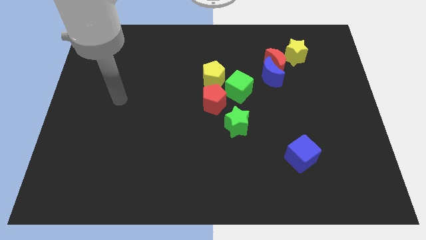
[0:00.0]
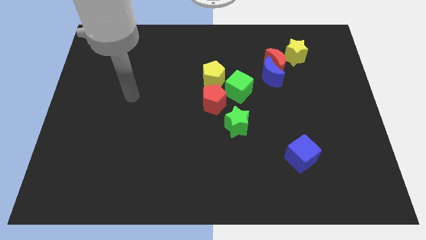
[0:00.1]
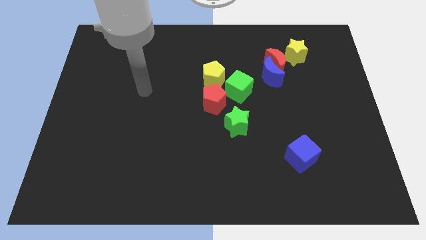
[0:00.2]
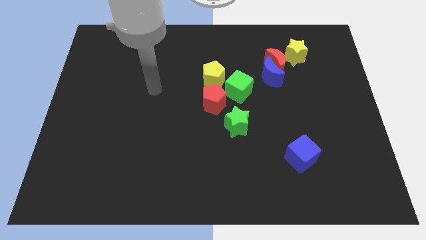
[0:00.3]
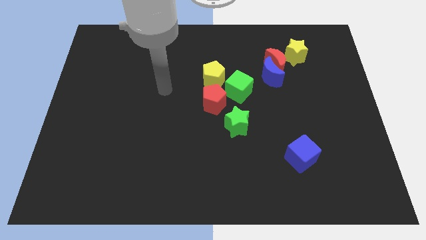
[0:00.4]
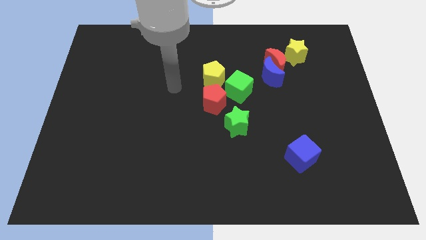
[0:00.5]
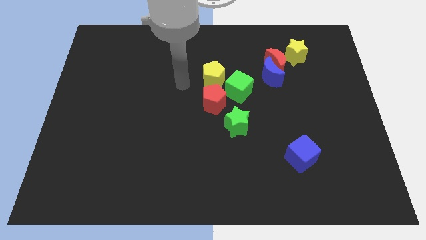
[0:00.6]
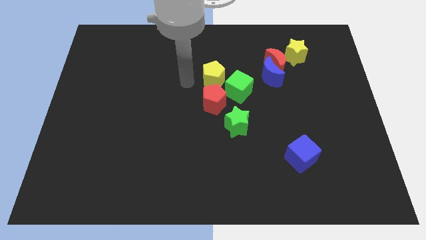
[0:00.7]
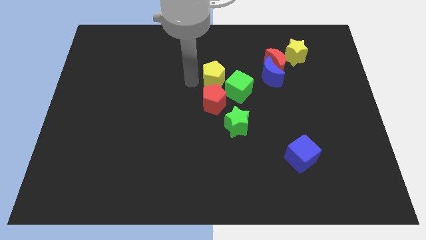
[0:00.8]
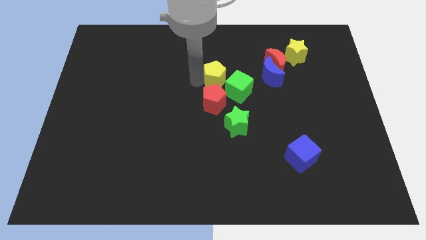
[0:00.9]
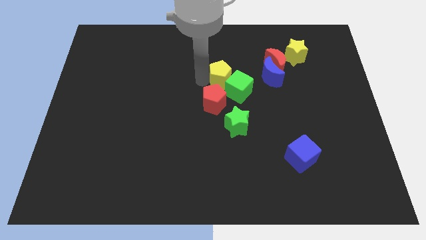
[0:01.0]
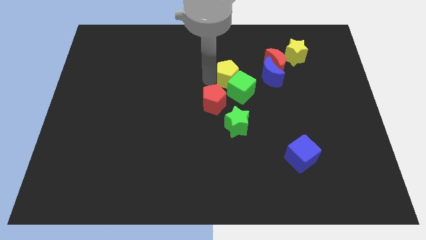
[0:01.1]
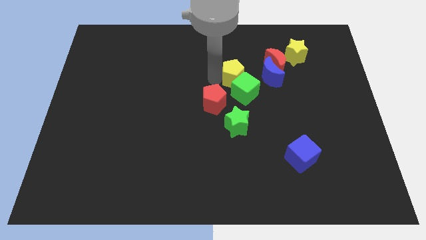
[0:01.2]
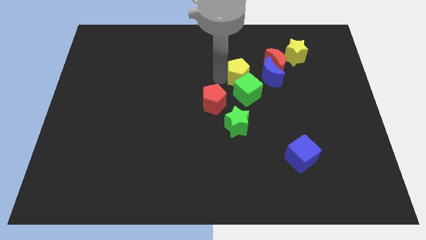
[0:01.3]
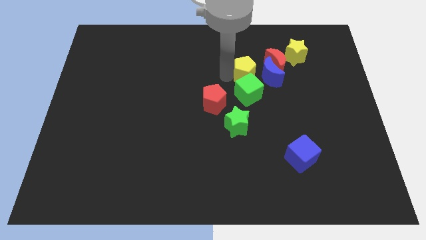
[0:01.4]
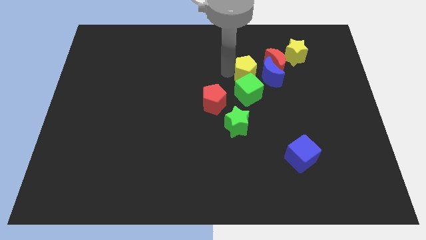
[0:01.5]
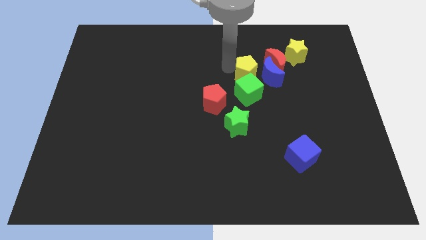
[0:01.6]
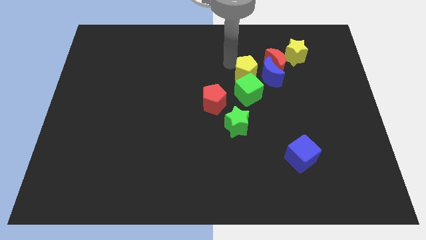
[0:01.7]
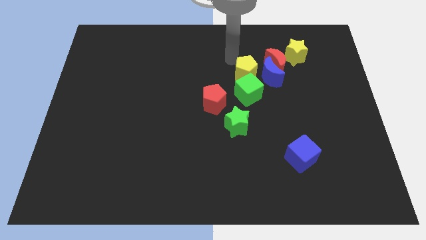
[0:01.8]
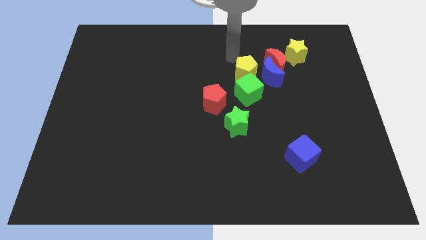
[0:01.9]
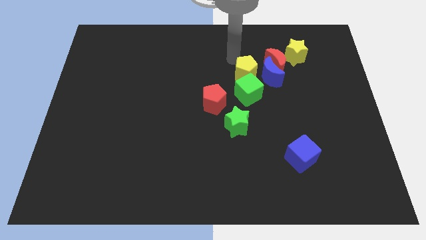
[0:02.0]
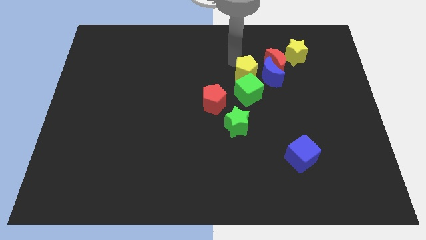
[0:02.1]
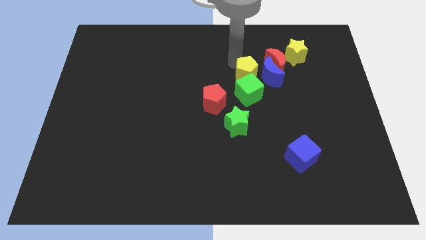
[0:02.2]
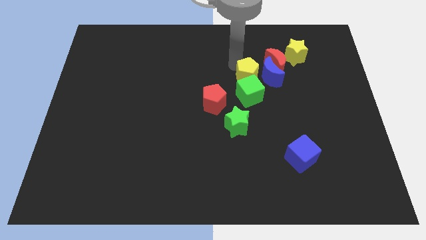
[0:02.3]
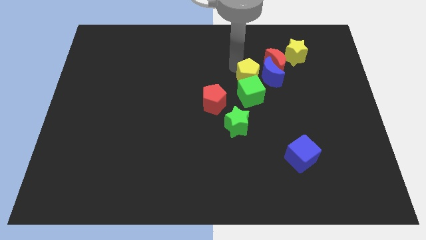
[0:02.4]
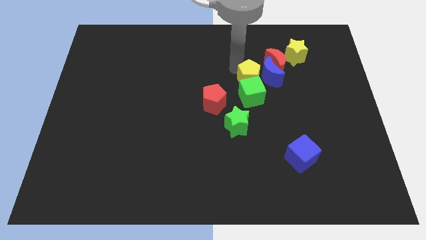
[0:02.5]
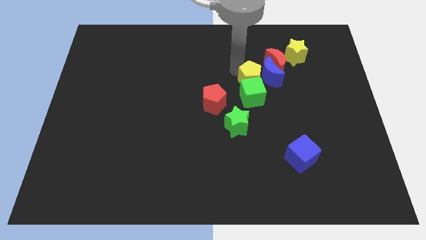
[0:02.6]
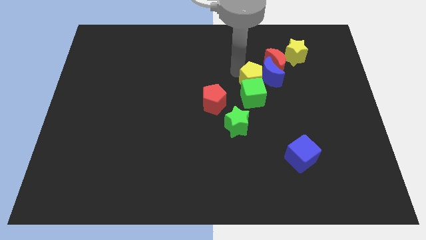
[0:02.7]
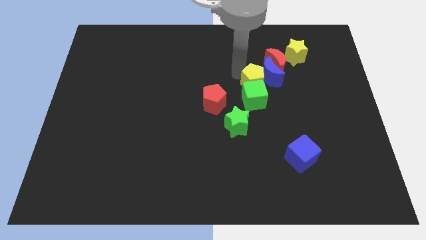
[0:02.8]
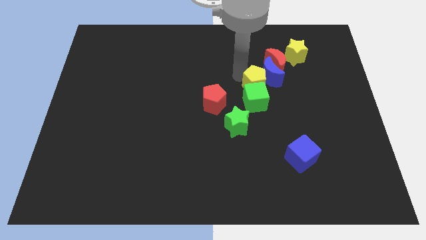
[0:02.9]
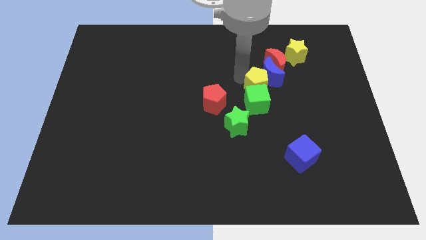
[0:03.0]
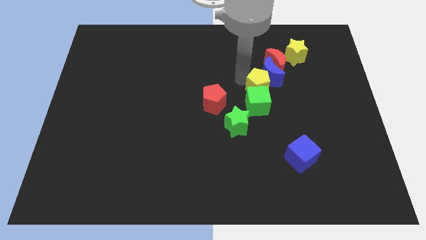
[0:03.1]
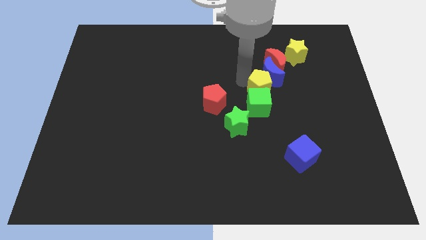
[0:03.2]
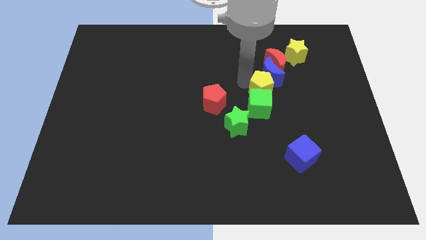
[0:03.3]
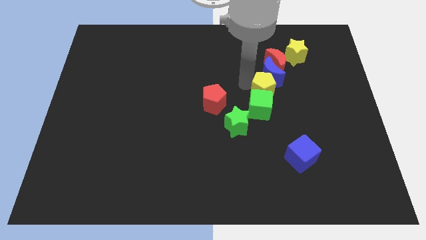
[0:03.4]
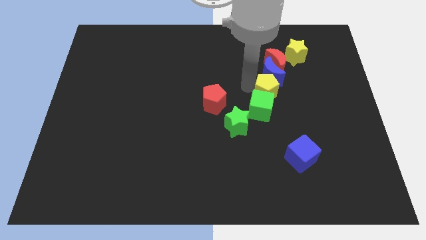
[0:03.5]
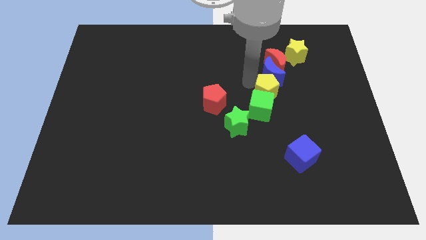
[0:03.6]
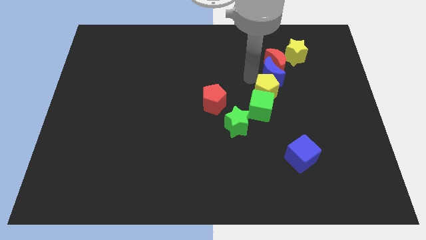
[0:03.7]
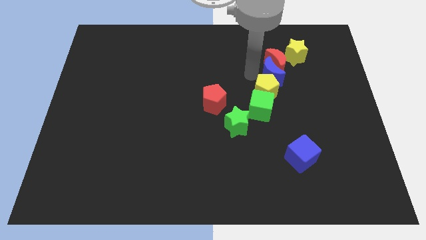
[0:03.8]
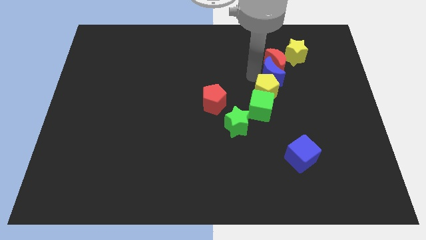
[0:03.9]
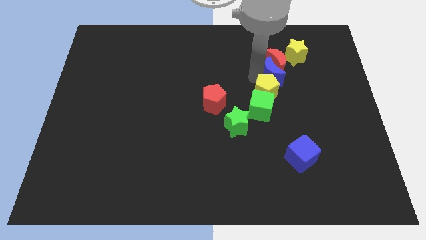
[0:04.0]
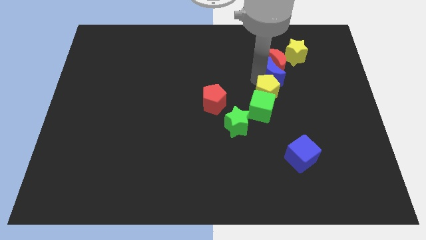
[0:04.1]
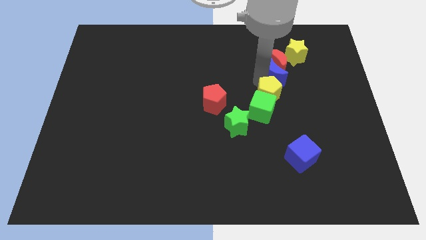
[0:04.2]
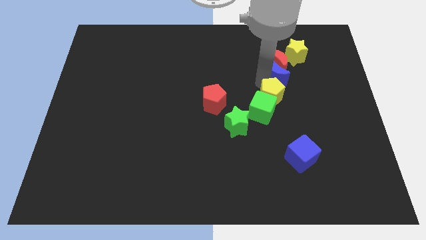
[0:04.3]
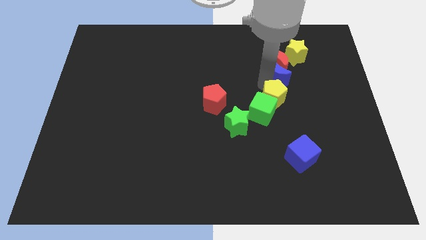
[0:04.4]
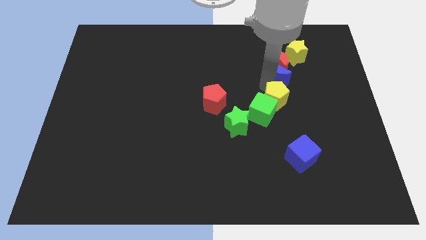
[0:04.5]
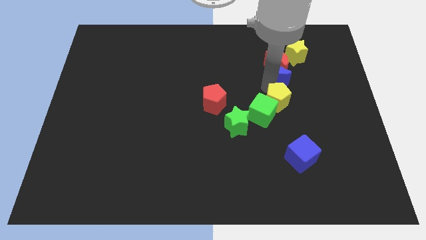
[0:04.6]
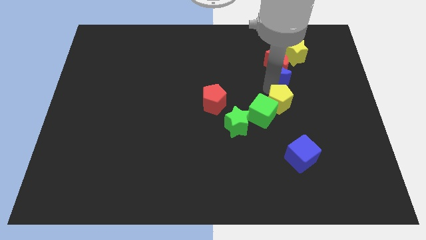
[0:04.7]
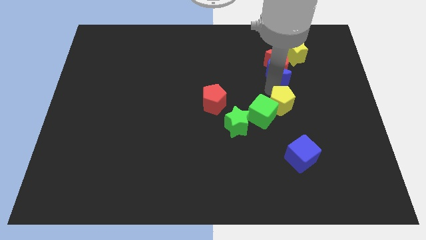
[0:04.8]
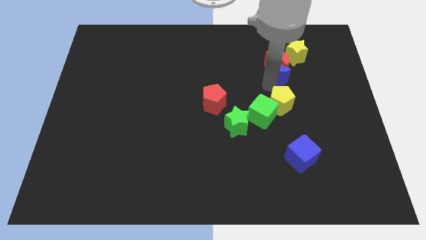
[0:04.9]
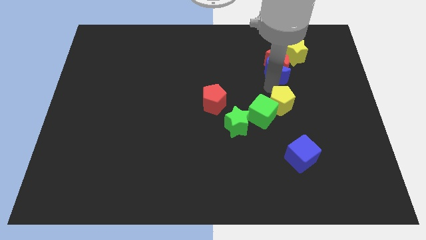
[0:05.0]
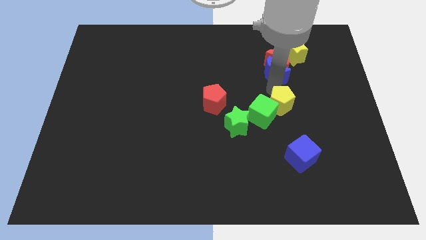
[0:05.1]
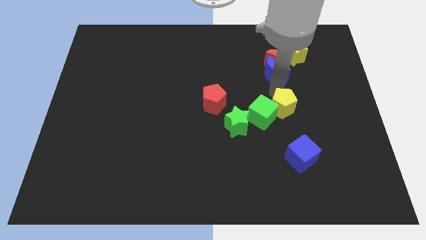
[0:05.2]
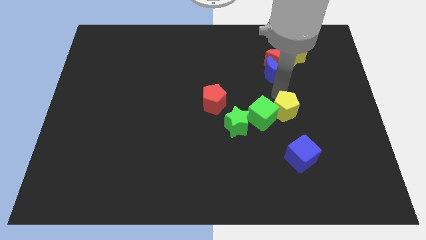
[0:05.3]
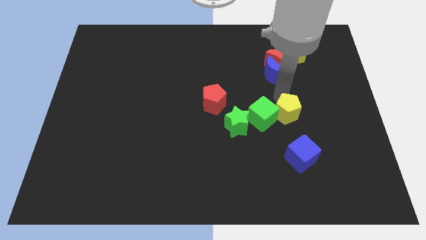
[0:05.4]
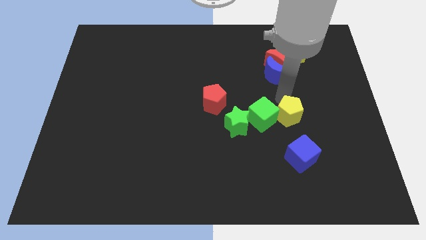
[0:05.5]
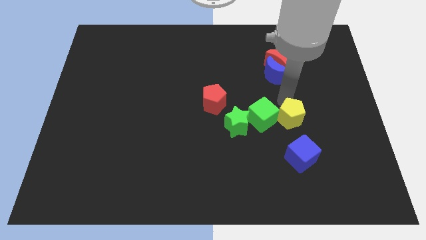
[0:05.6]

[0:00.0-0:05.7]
move the yellow pentagon downwards and to the right

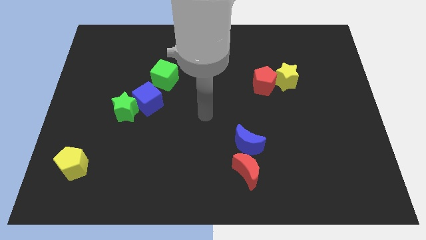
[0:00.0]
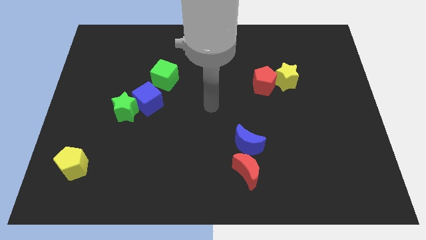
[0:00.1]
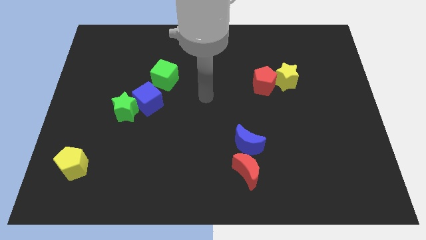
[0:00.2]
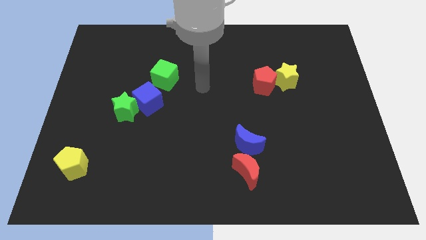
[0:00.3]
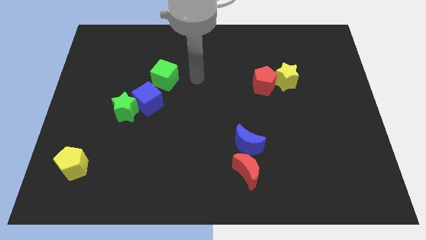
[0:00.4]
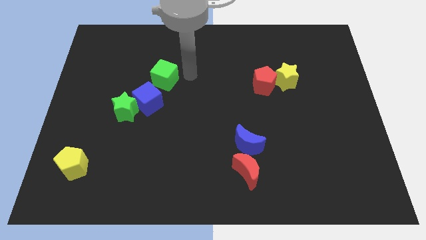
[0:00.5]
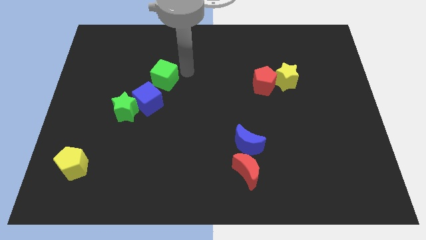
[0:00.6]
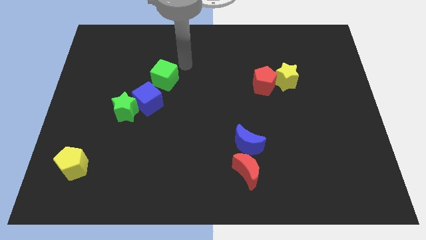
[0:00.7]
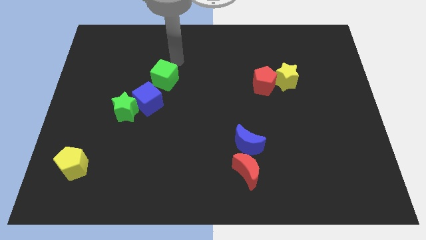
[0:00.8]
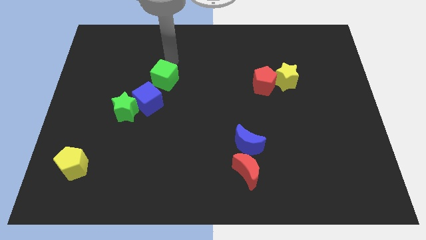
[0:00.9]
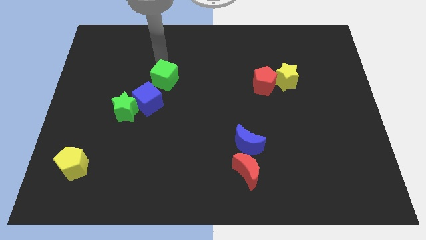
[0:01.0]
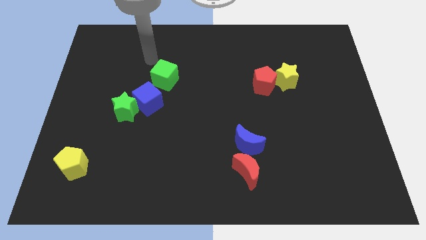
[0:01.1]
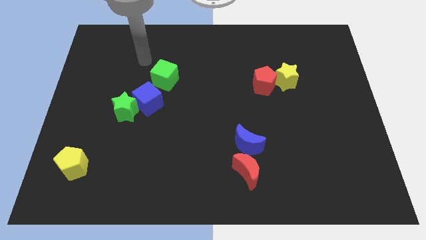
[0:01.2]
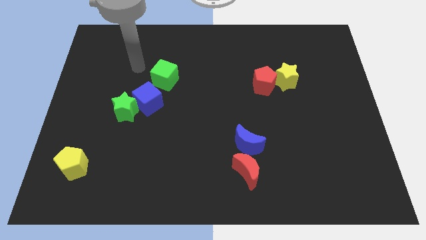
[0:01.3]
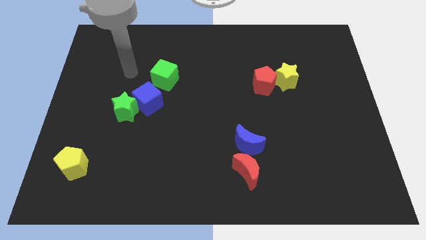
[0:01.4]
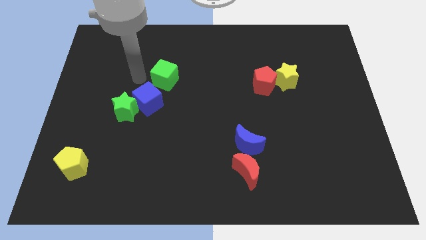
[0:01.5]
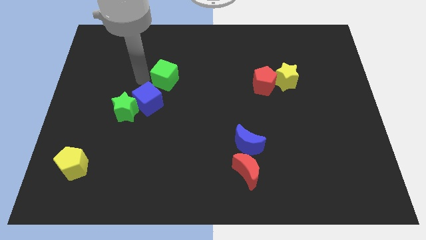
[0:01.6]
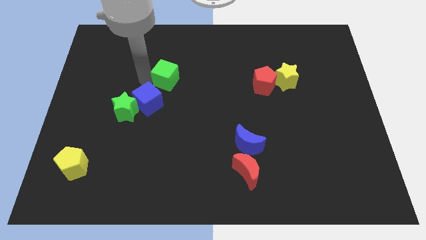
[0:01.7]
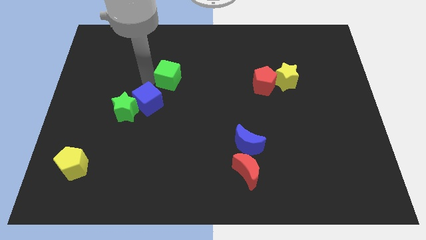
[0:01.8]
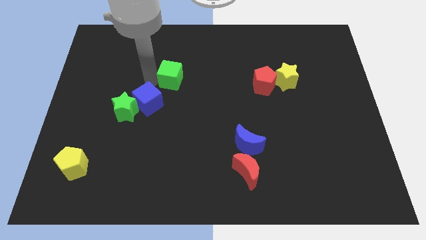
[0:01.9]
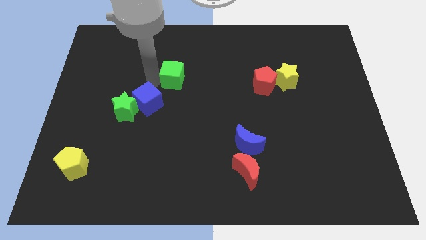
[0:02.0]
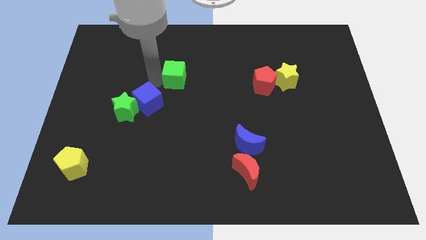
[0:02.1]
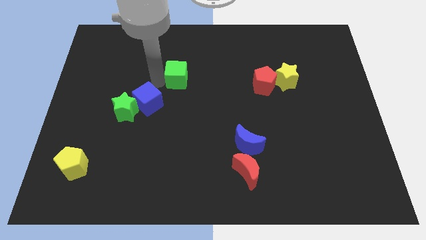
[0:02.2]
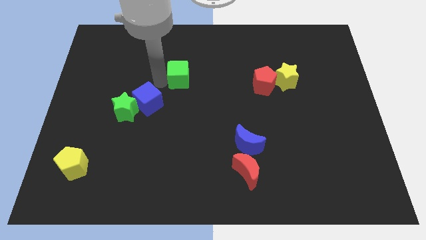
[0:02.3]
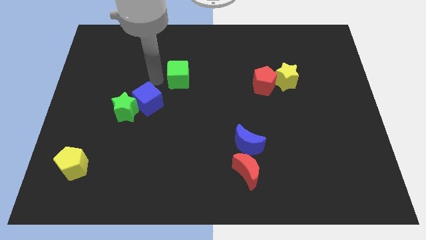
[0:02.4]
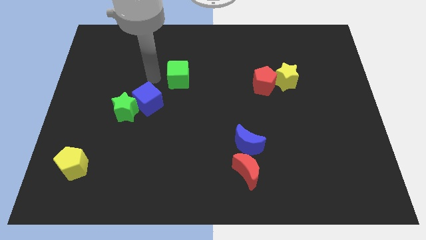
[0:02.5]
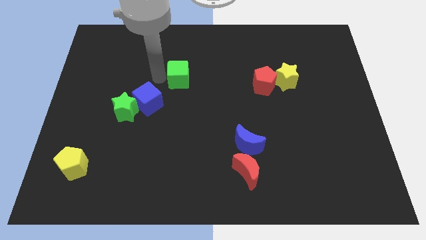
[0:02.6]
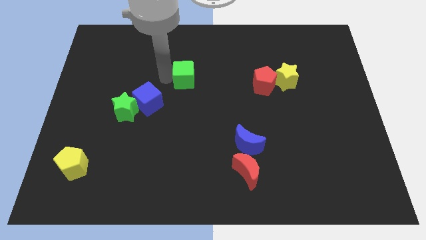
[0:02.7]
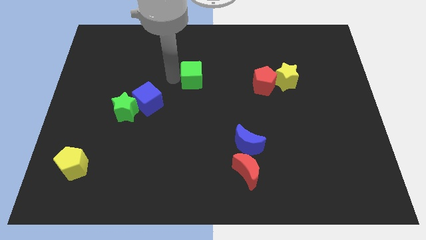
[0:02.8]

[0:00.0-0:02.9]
move the green cube right a little
